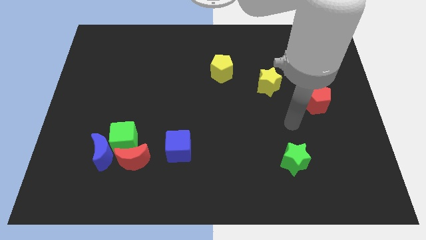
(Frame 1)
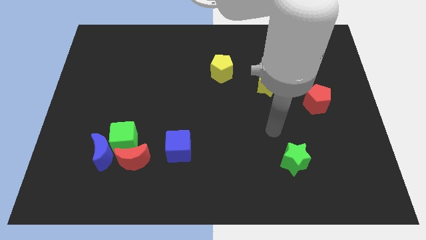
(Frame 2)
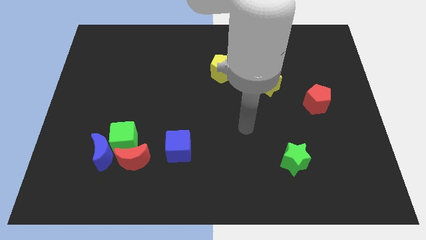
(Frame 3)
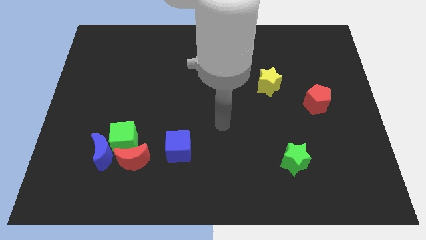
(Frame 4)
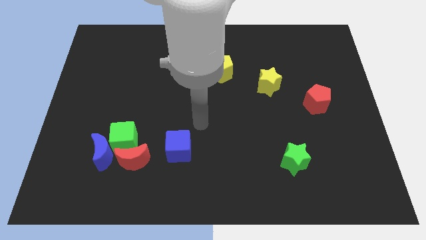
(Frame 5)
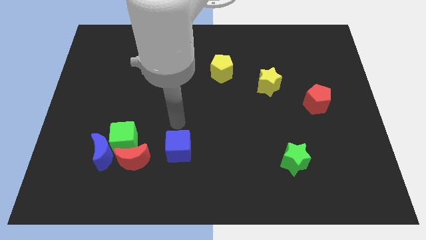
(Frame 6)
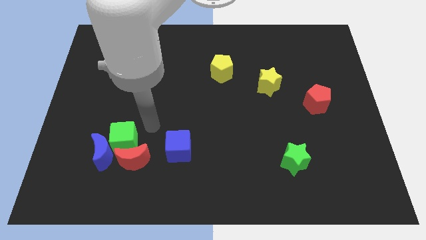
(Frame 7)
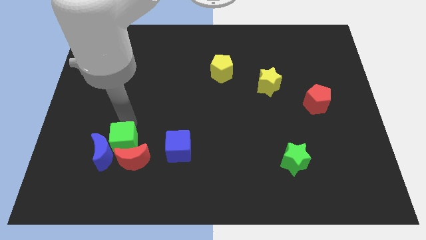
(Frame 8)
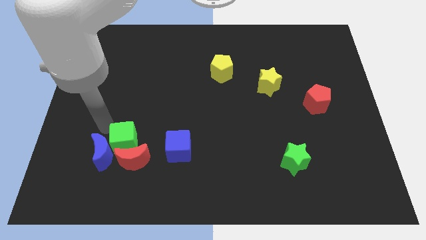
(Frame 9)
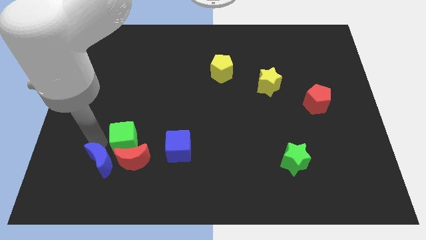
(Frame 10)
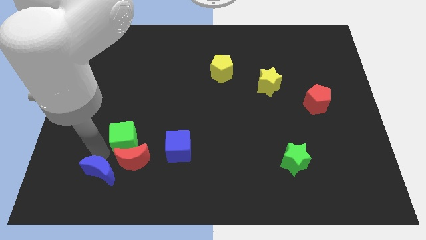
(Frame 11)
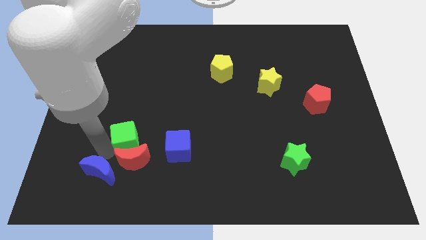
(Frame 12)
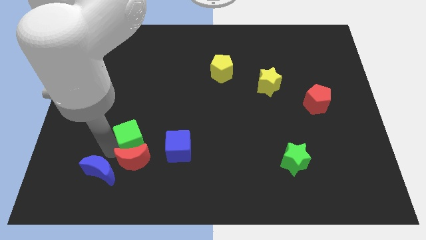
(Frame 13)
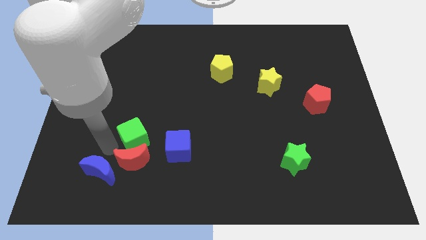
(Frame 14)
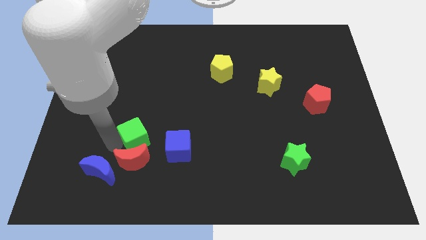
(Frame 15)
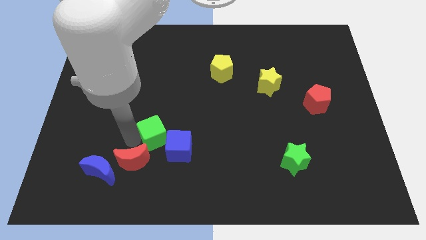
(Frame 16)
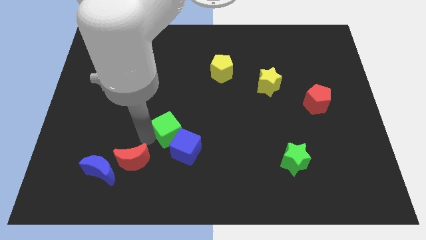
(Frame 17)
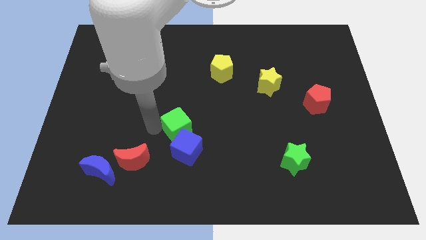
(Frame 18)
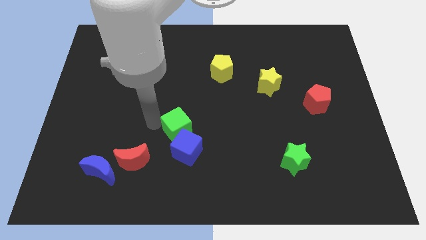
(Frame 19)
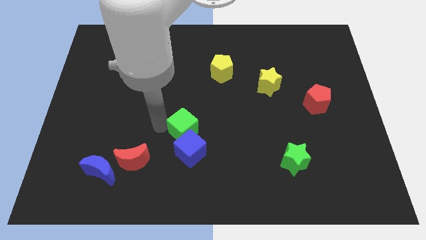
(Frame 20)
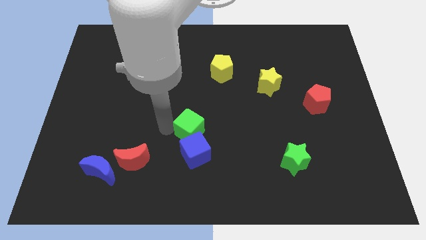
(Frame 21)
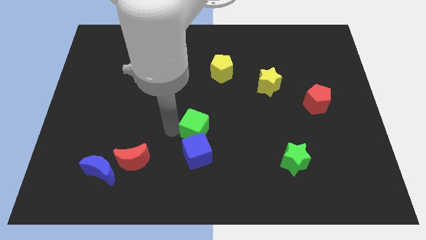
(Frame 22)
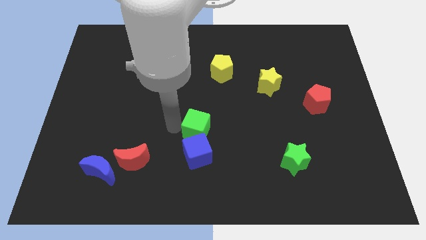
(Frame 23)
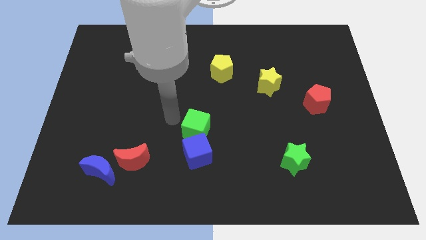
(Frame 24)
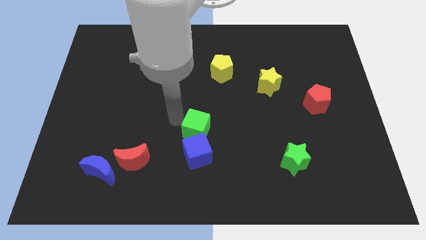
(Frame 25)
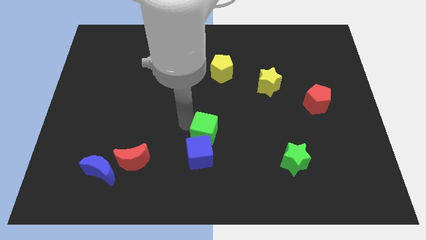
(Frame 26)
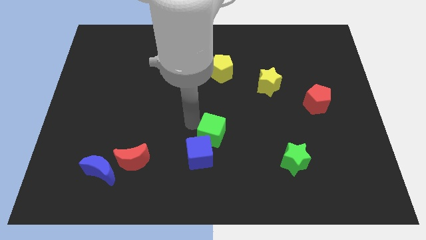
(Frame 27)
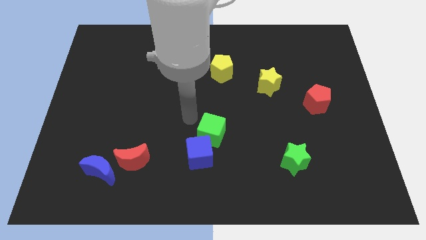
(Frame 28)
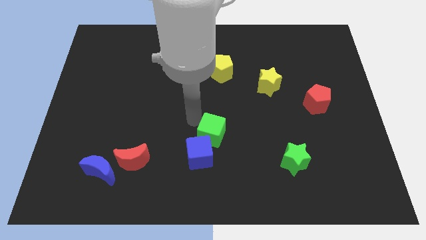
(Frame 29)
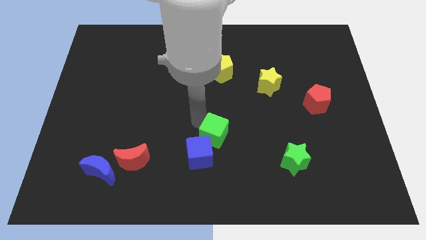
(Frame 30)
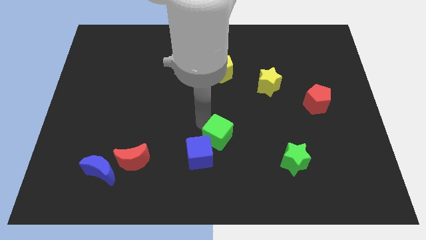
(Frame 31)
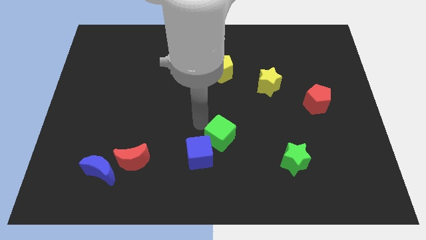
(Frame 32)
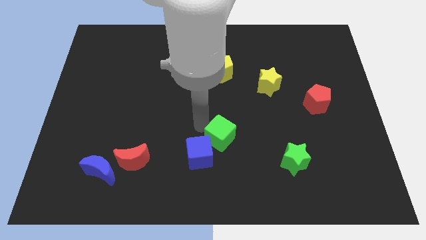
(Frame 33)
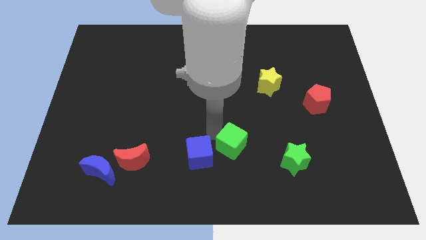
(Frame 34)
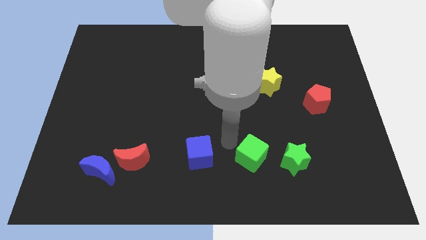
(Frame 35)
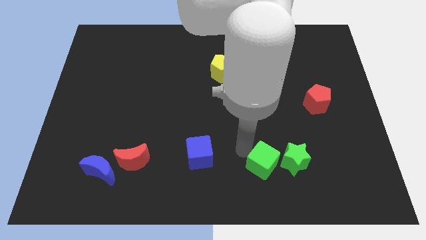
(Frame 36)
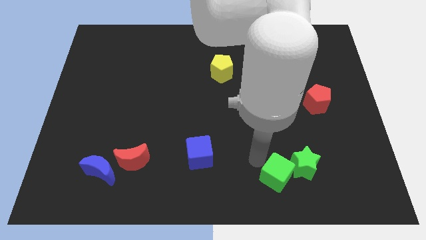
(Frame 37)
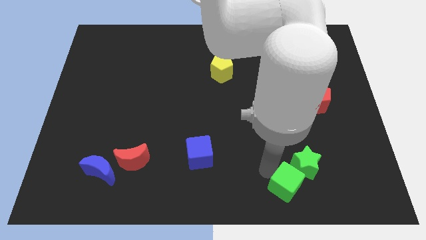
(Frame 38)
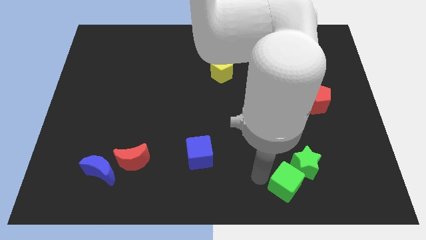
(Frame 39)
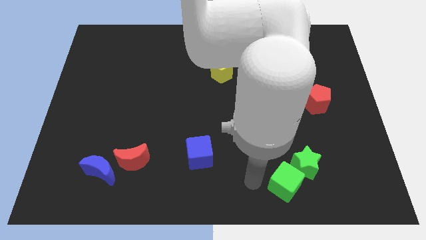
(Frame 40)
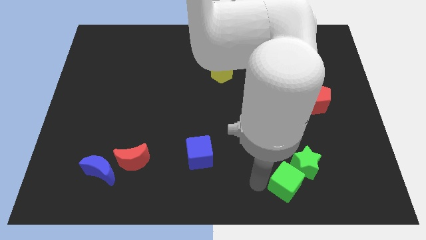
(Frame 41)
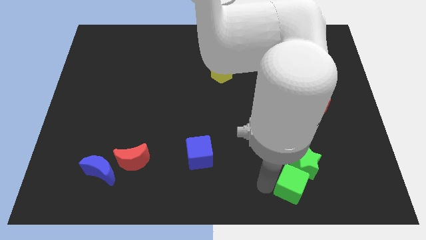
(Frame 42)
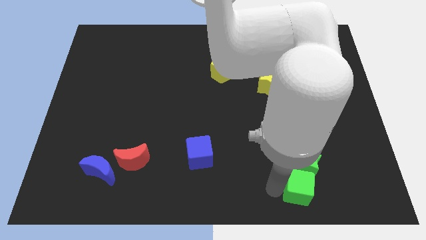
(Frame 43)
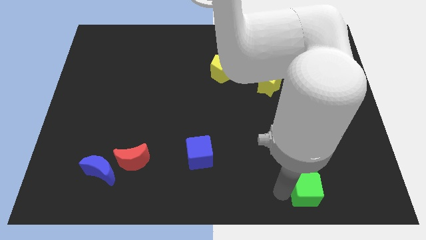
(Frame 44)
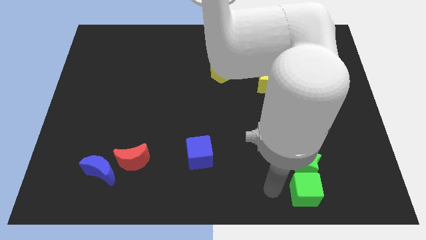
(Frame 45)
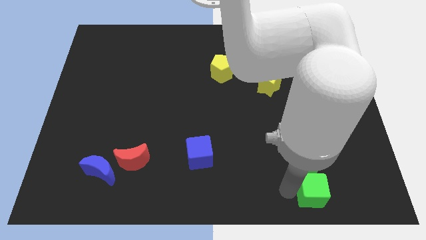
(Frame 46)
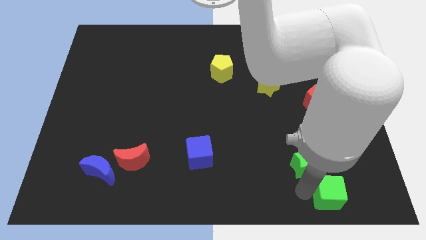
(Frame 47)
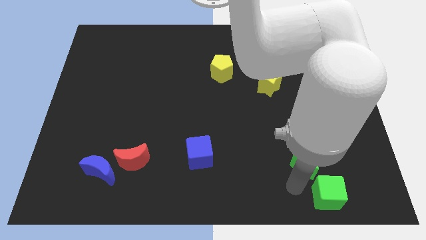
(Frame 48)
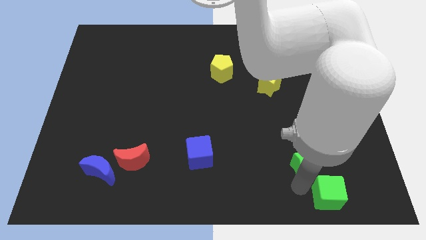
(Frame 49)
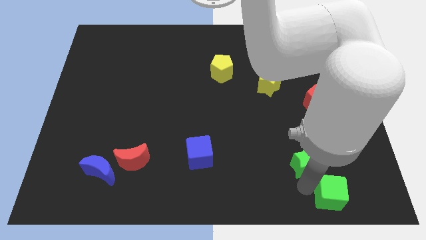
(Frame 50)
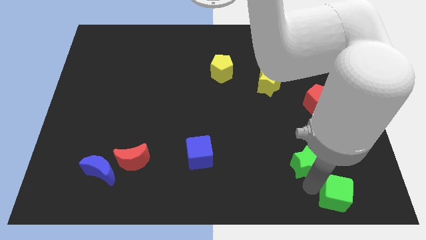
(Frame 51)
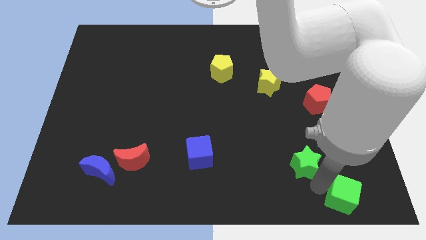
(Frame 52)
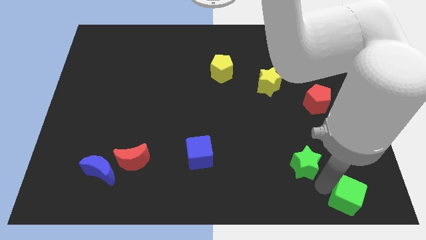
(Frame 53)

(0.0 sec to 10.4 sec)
move the green cube to the bottom right corner

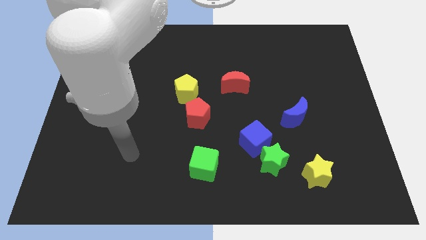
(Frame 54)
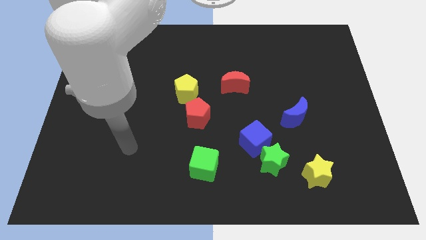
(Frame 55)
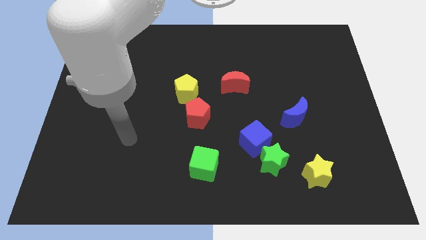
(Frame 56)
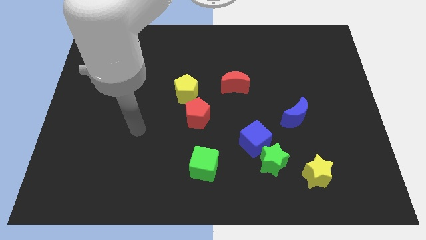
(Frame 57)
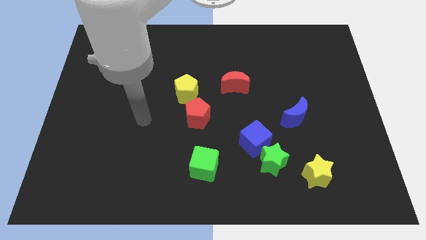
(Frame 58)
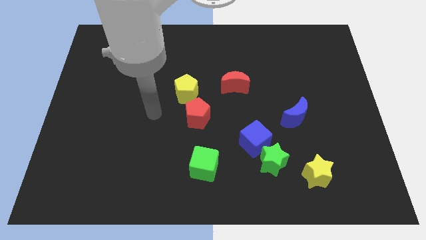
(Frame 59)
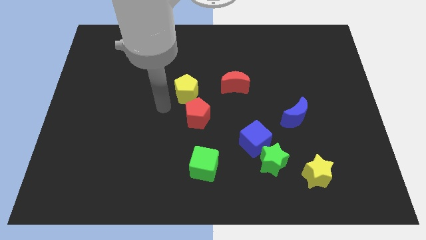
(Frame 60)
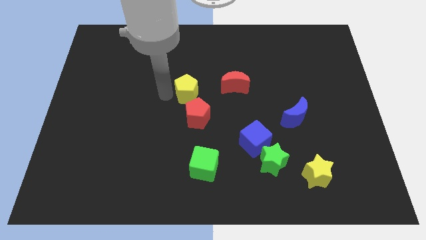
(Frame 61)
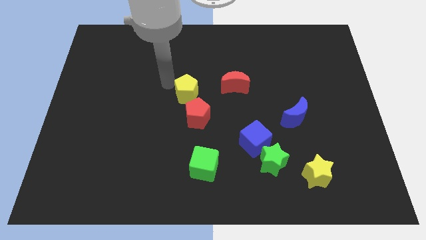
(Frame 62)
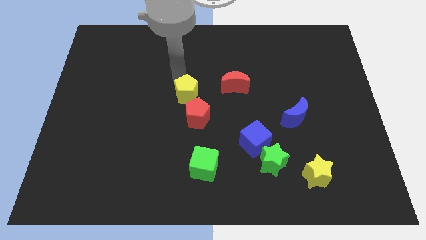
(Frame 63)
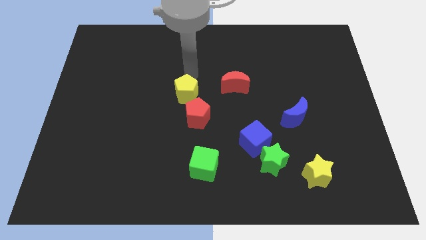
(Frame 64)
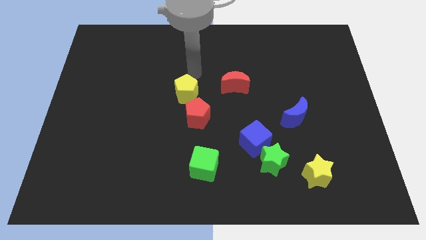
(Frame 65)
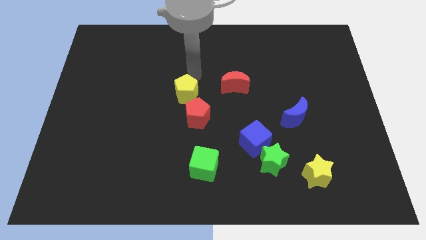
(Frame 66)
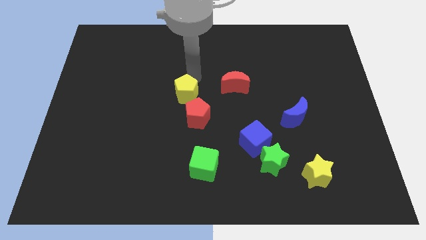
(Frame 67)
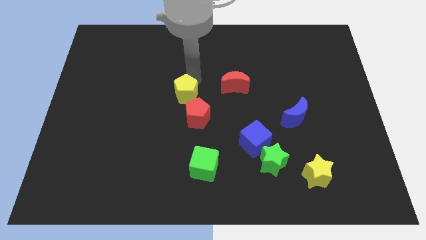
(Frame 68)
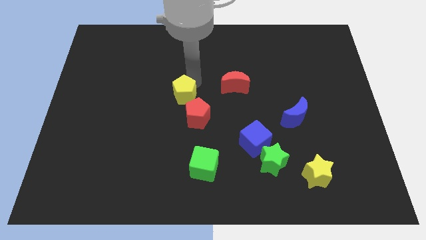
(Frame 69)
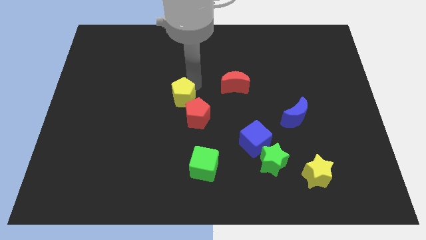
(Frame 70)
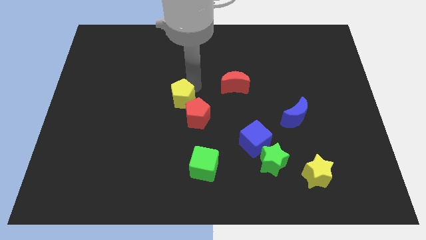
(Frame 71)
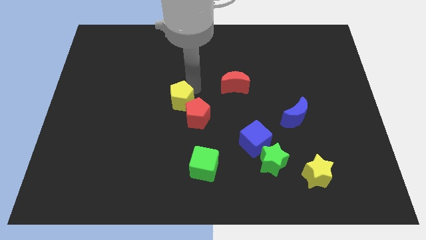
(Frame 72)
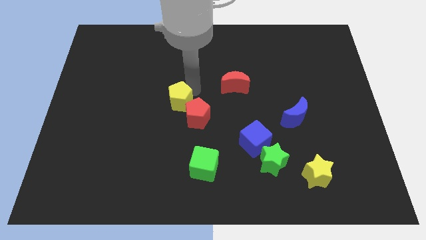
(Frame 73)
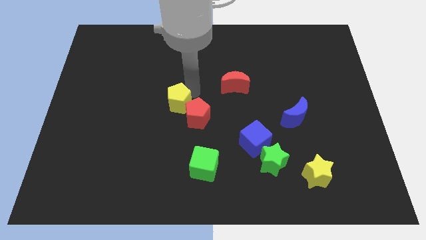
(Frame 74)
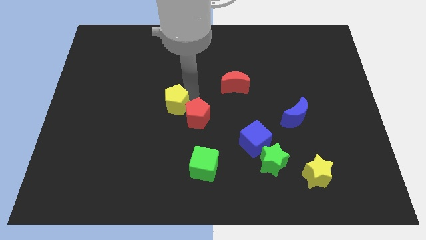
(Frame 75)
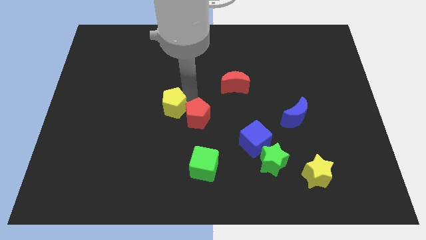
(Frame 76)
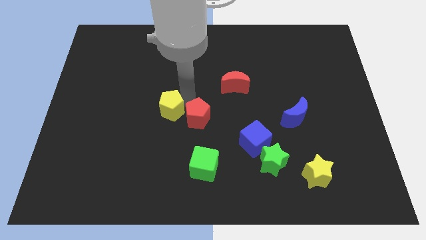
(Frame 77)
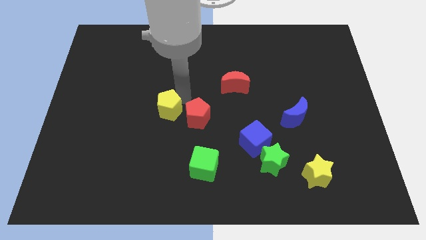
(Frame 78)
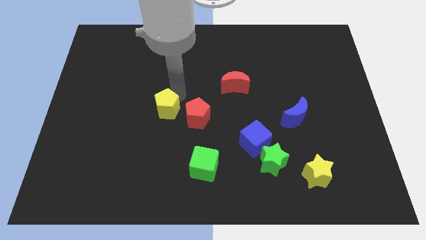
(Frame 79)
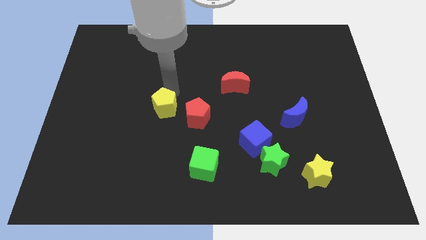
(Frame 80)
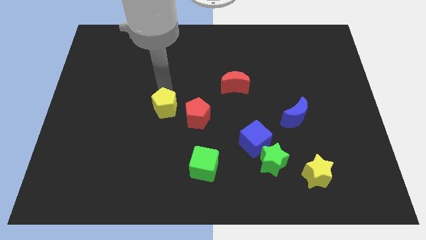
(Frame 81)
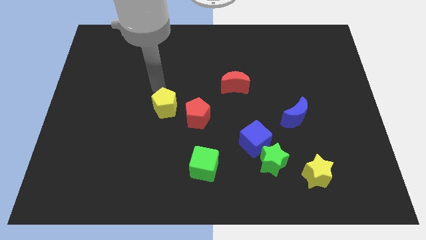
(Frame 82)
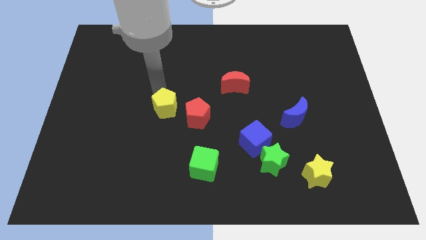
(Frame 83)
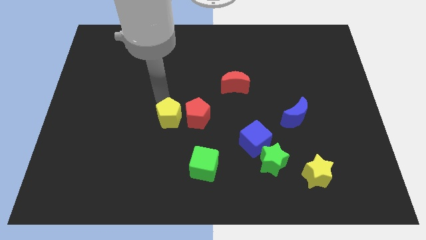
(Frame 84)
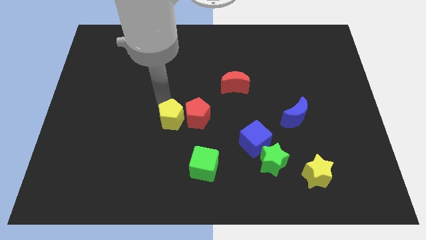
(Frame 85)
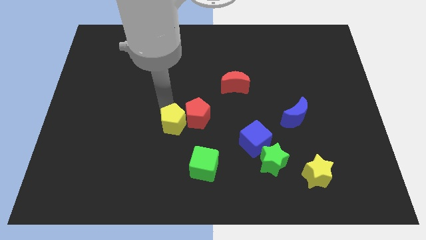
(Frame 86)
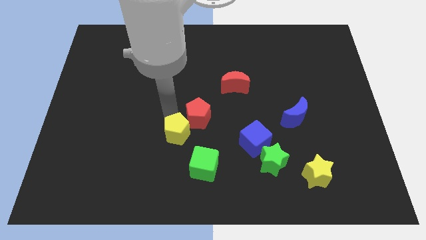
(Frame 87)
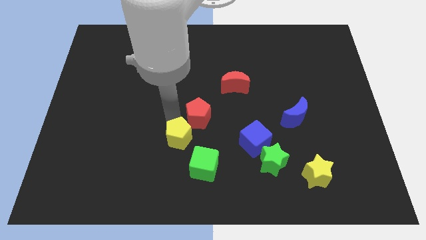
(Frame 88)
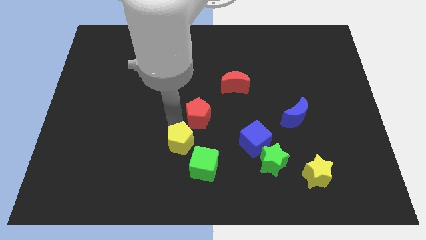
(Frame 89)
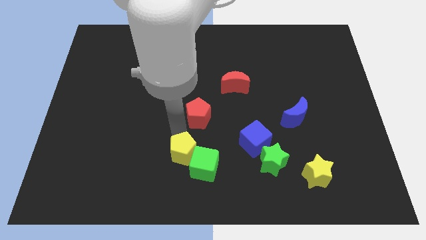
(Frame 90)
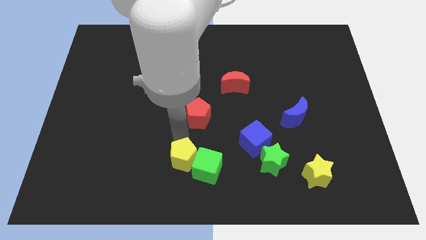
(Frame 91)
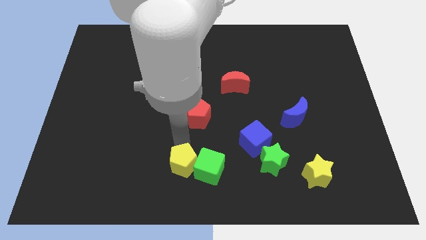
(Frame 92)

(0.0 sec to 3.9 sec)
move the yellow pentagon to the bottom
